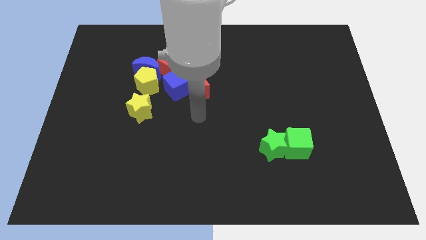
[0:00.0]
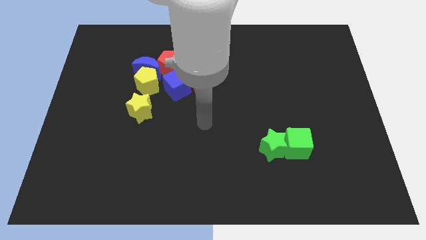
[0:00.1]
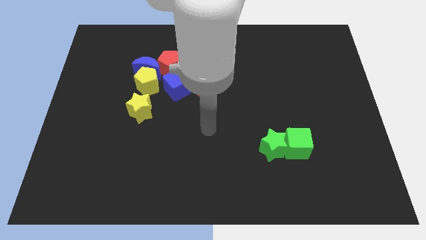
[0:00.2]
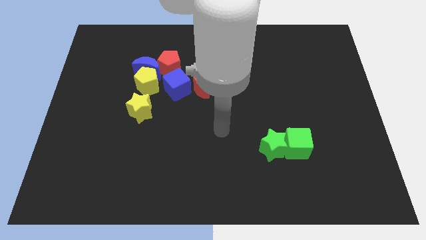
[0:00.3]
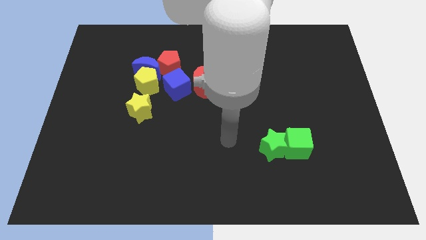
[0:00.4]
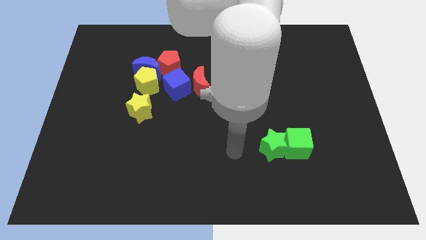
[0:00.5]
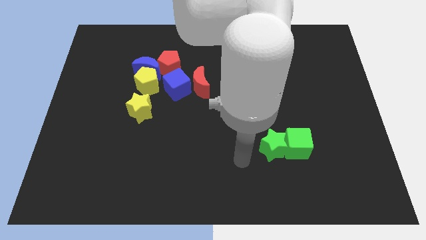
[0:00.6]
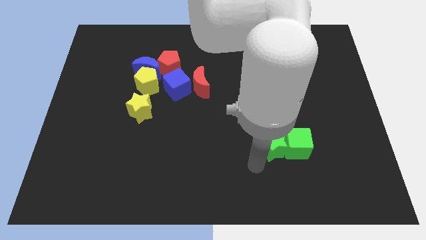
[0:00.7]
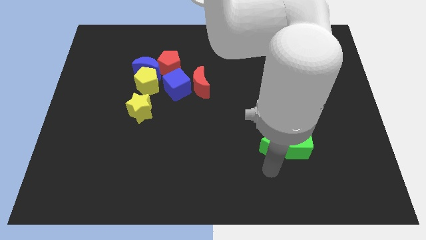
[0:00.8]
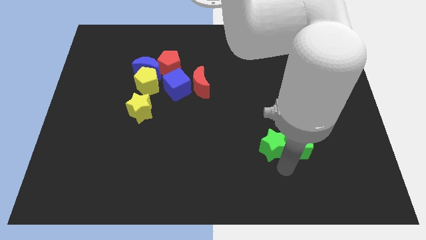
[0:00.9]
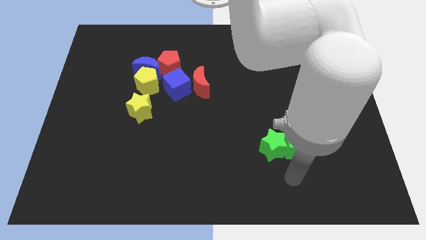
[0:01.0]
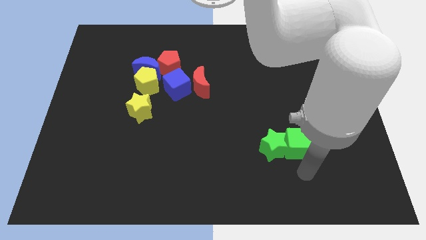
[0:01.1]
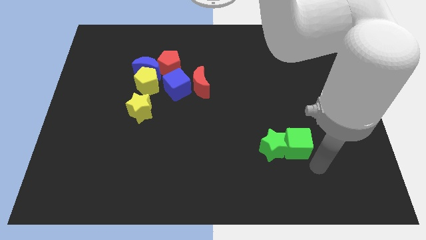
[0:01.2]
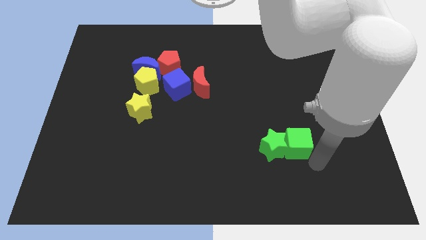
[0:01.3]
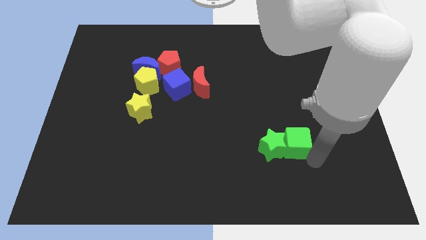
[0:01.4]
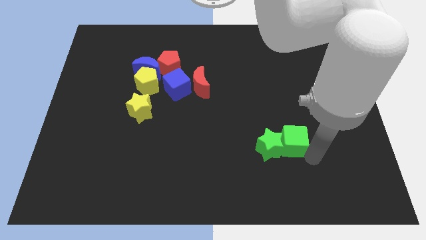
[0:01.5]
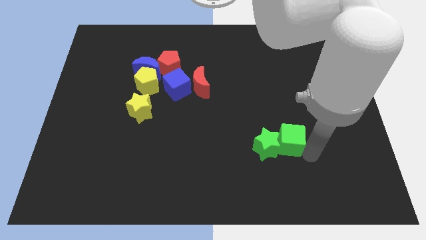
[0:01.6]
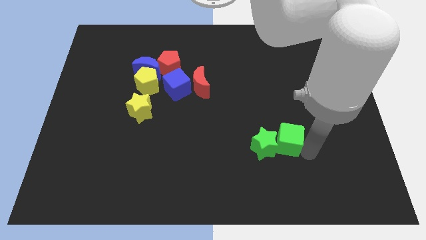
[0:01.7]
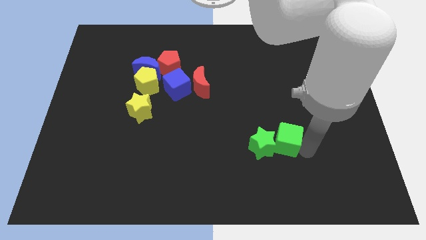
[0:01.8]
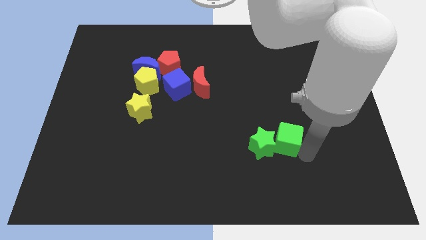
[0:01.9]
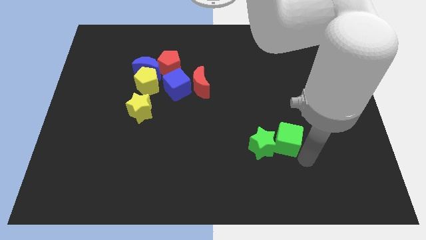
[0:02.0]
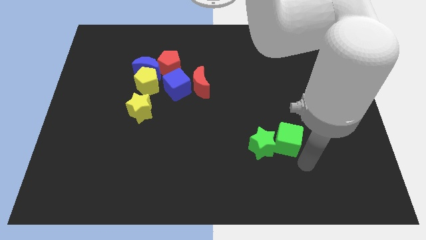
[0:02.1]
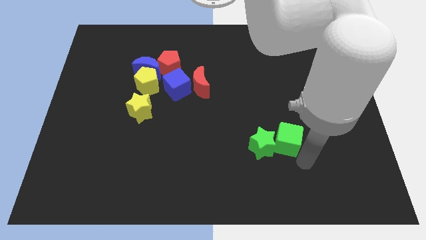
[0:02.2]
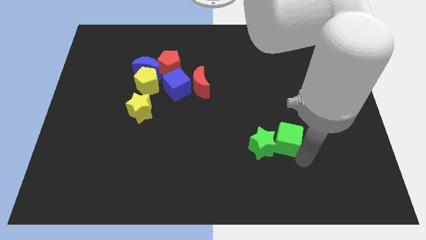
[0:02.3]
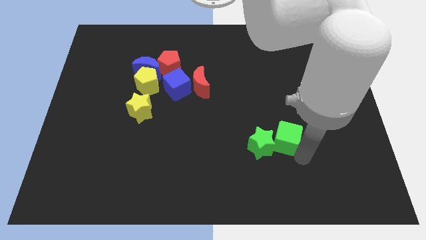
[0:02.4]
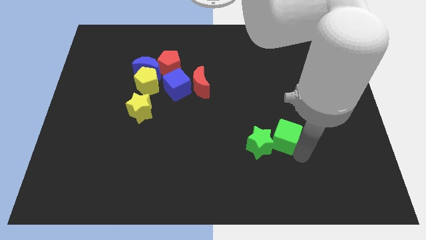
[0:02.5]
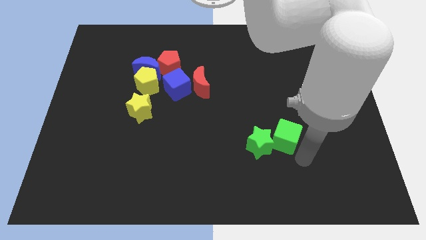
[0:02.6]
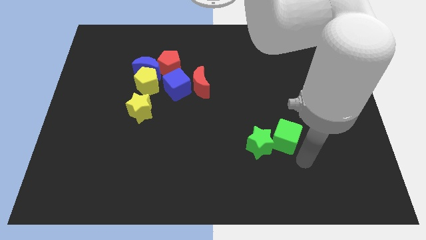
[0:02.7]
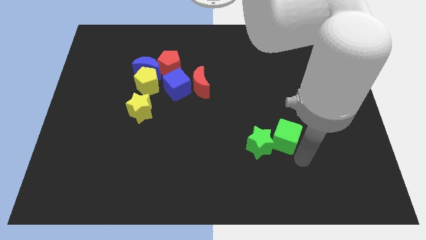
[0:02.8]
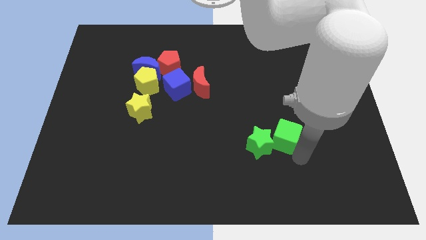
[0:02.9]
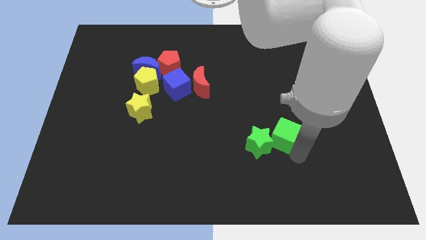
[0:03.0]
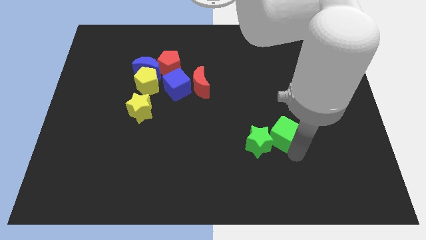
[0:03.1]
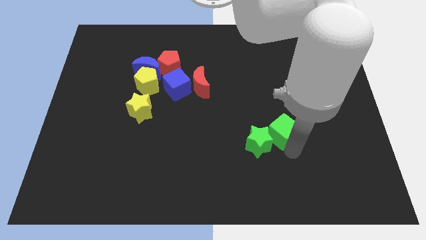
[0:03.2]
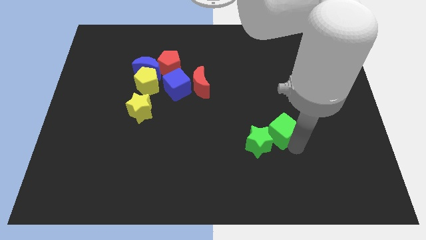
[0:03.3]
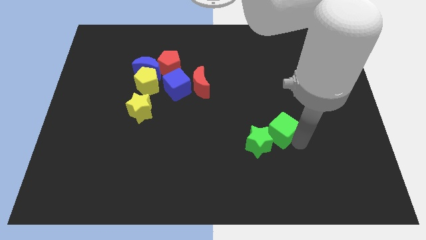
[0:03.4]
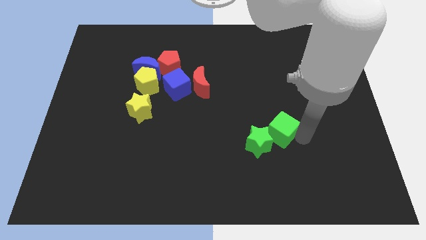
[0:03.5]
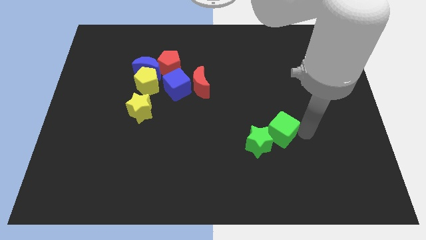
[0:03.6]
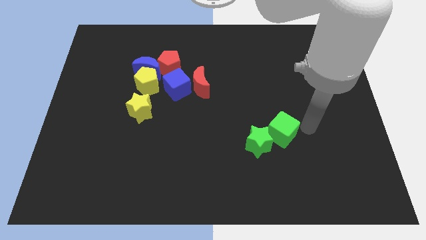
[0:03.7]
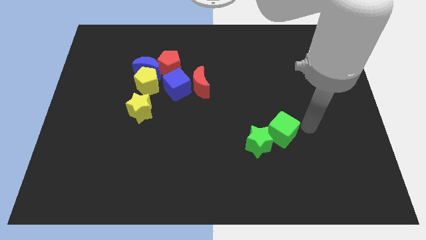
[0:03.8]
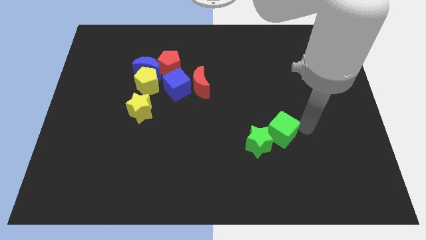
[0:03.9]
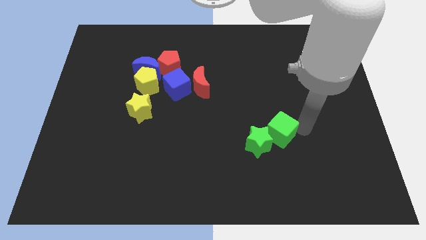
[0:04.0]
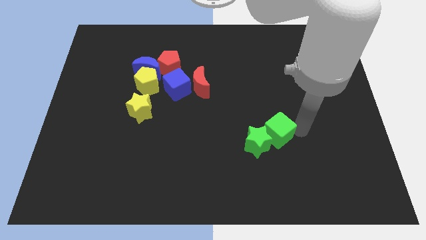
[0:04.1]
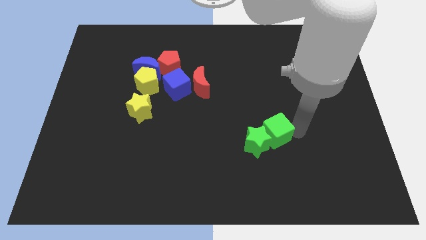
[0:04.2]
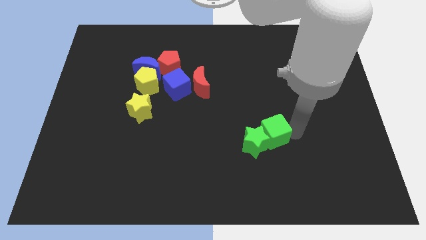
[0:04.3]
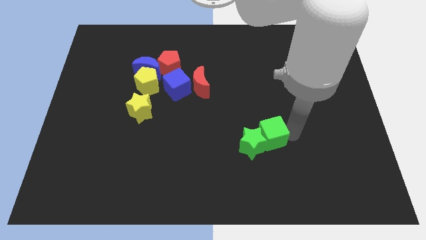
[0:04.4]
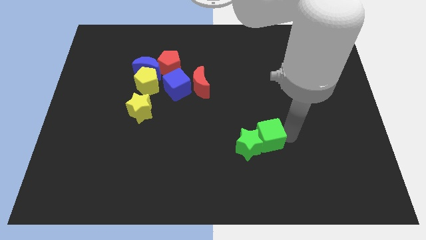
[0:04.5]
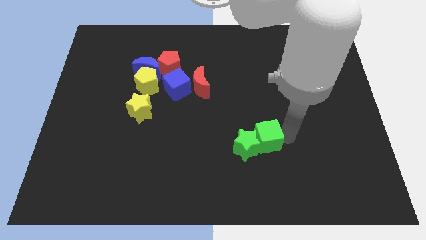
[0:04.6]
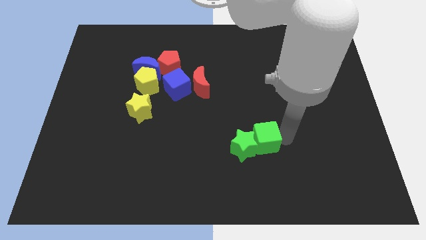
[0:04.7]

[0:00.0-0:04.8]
push the green cube a little bit to the left

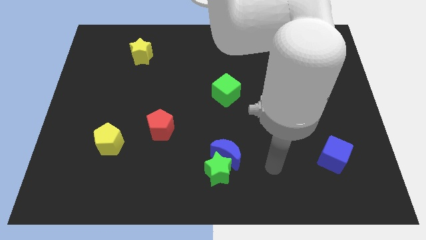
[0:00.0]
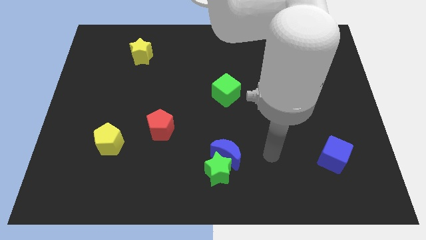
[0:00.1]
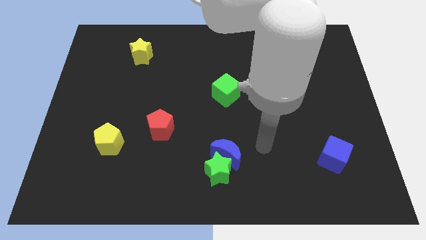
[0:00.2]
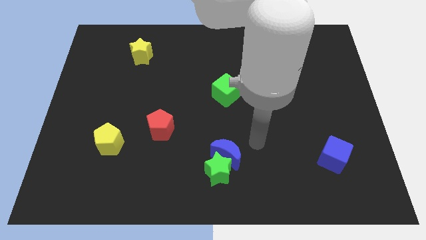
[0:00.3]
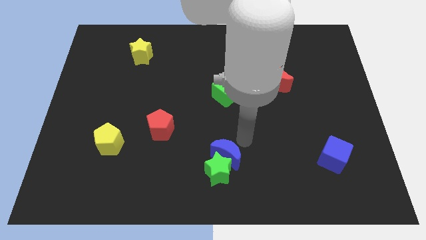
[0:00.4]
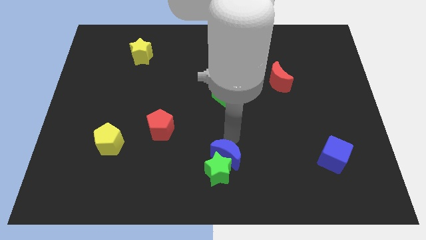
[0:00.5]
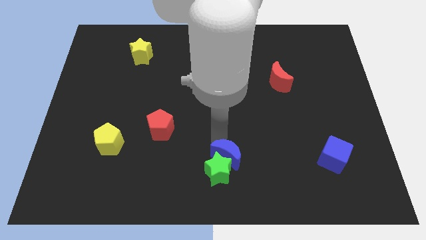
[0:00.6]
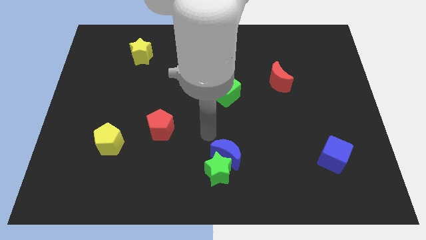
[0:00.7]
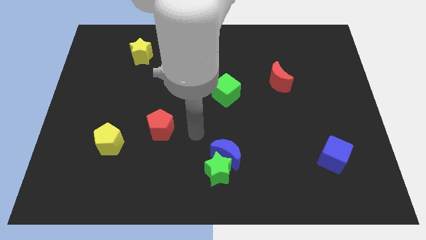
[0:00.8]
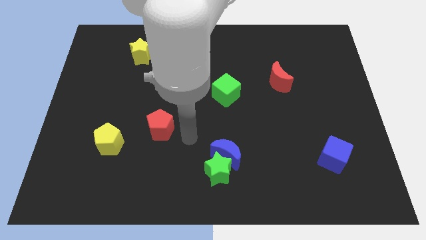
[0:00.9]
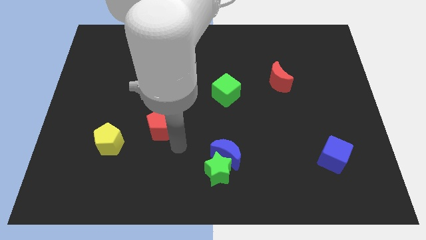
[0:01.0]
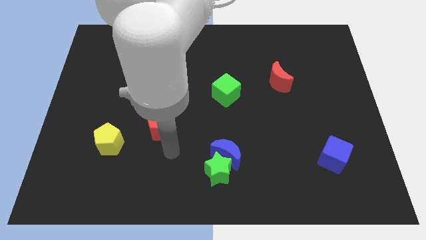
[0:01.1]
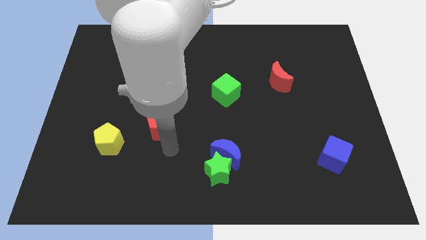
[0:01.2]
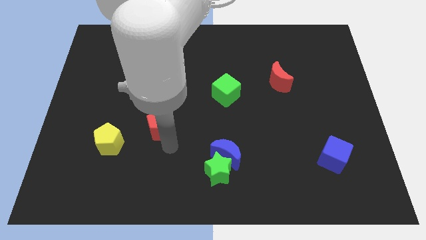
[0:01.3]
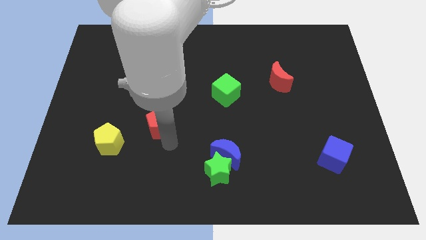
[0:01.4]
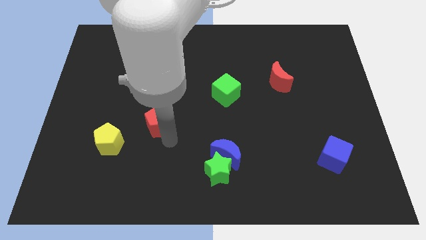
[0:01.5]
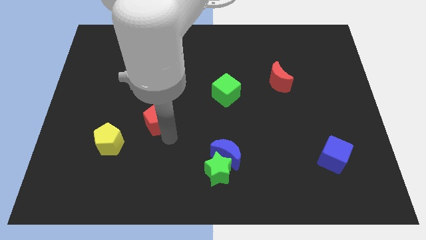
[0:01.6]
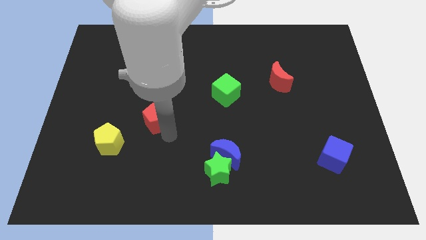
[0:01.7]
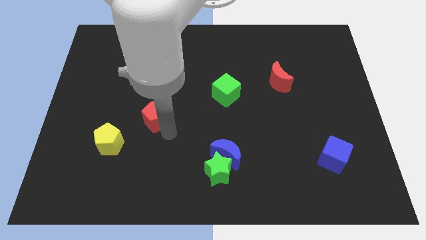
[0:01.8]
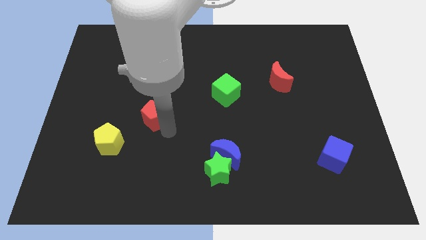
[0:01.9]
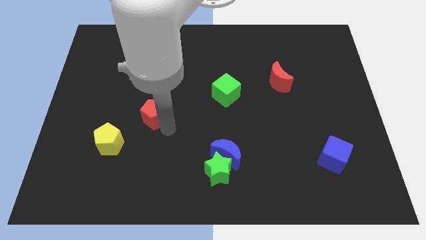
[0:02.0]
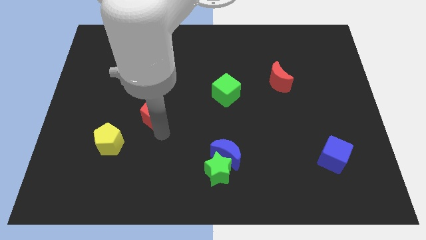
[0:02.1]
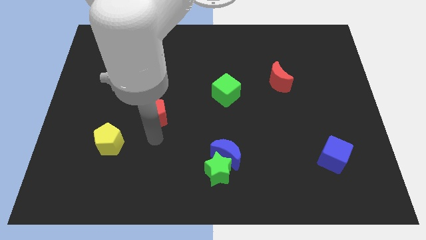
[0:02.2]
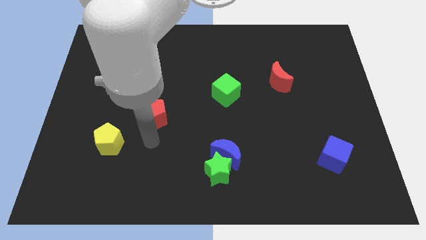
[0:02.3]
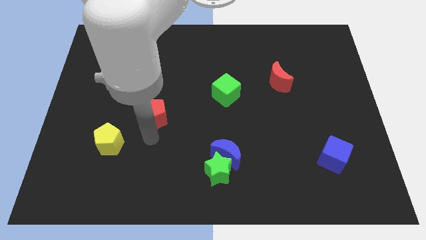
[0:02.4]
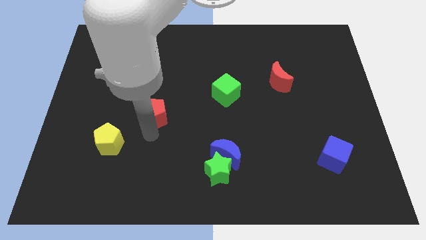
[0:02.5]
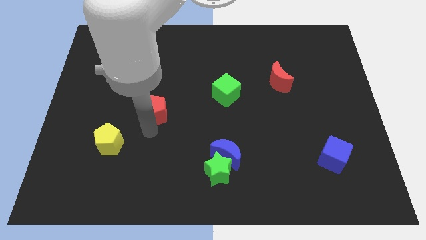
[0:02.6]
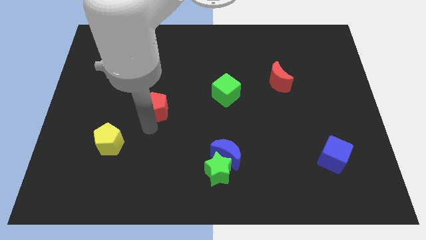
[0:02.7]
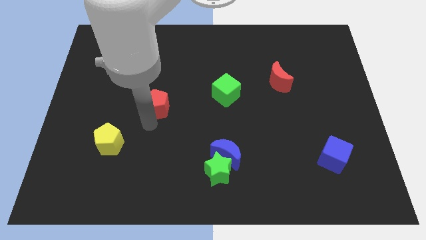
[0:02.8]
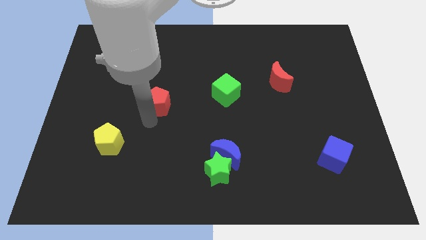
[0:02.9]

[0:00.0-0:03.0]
slightly slide the red pentagon up

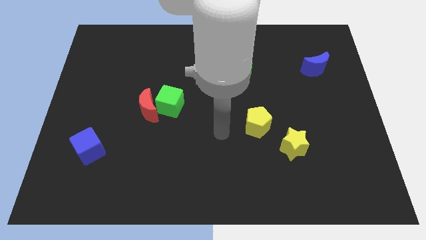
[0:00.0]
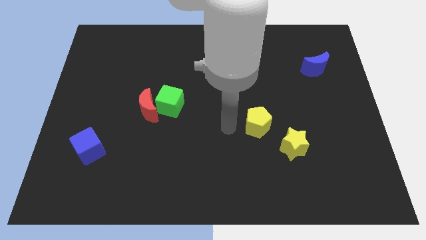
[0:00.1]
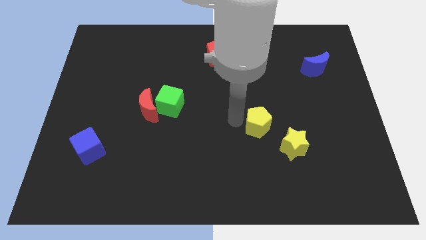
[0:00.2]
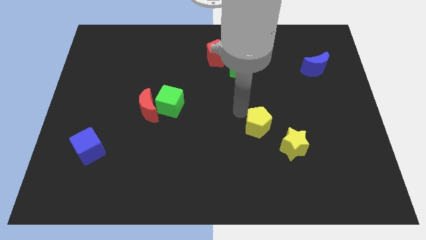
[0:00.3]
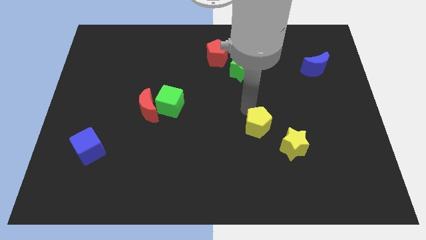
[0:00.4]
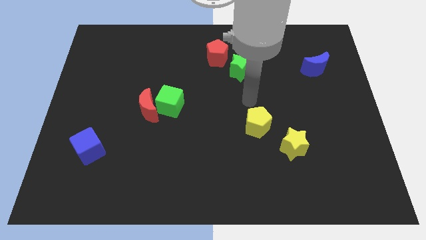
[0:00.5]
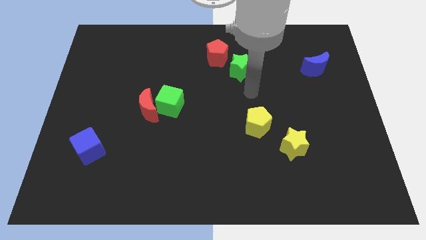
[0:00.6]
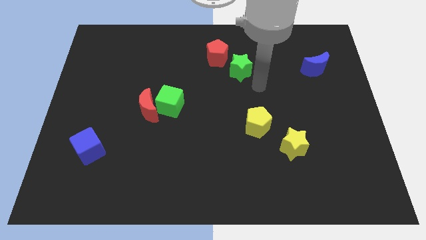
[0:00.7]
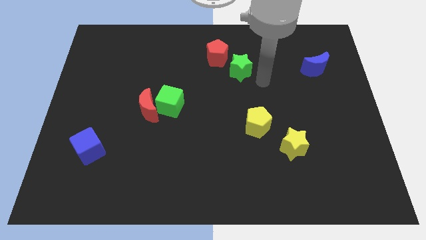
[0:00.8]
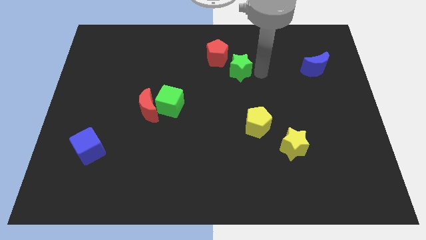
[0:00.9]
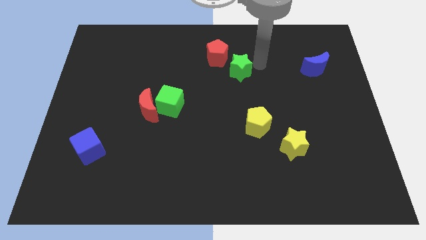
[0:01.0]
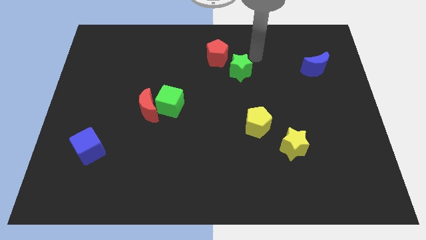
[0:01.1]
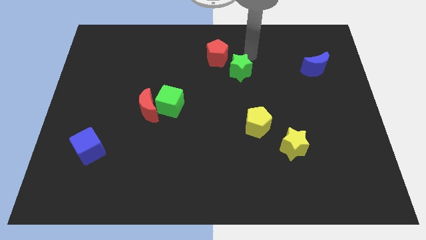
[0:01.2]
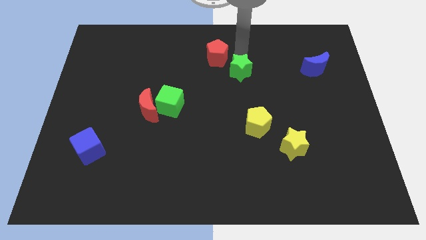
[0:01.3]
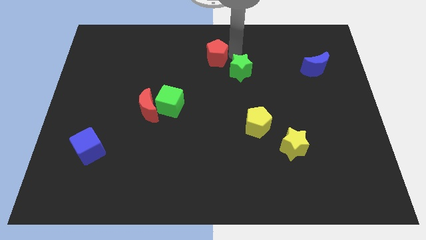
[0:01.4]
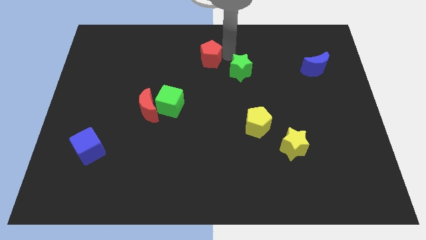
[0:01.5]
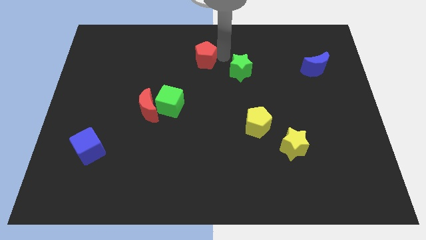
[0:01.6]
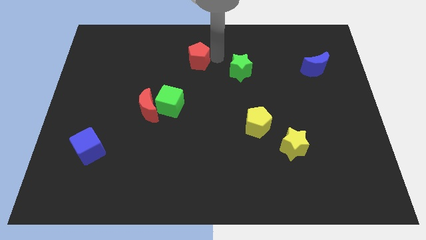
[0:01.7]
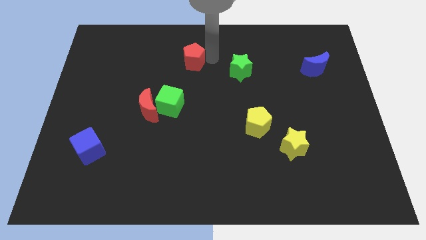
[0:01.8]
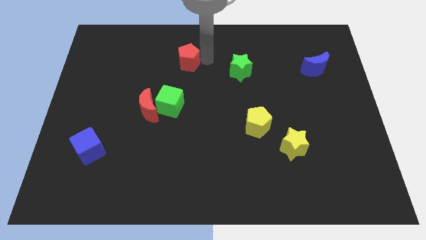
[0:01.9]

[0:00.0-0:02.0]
slightly push the red pentagon to the left
